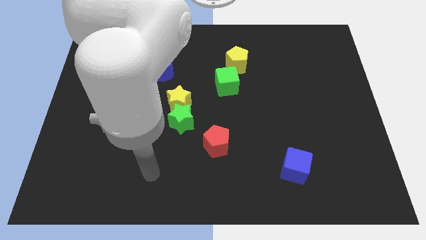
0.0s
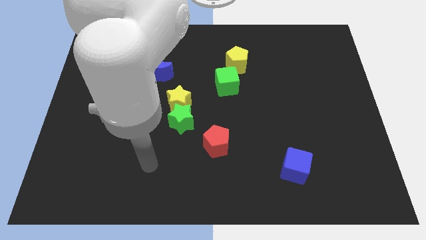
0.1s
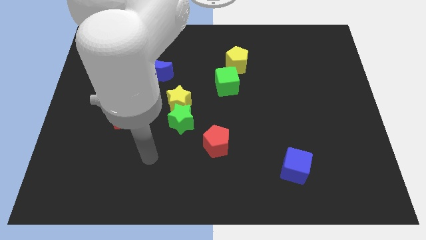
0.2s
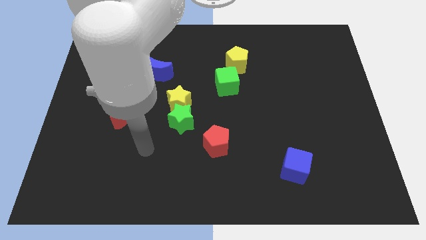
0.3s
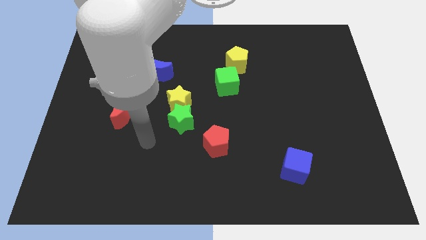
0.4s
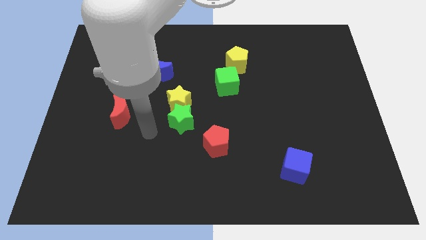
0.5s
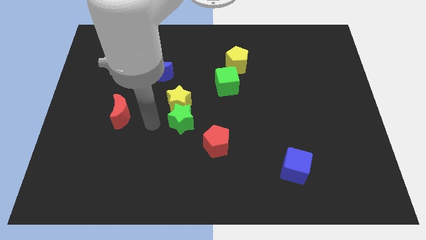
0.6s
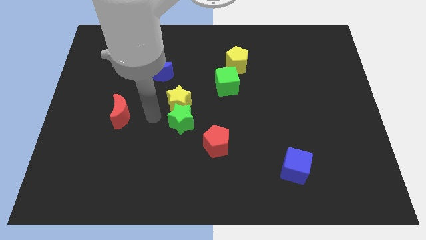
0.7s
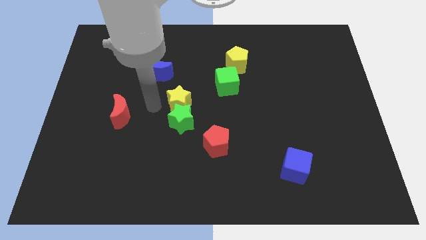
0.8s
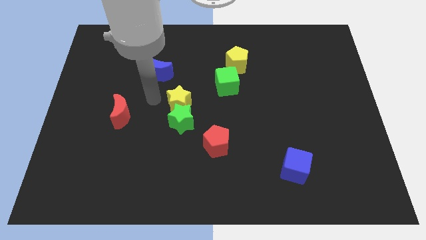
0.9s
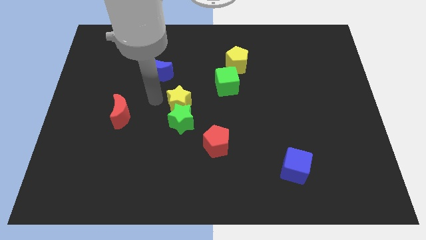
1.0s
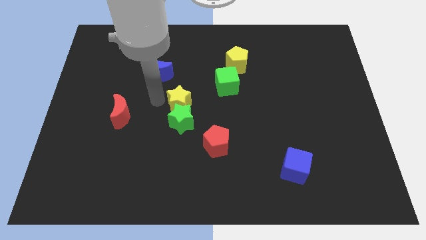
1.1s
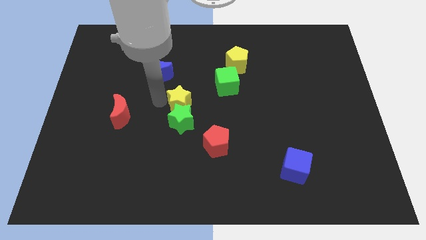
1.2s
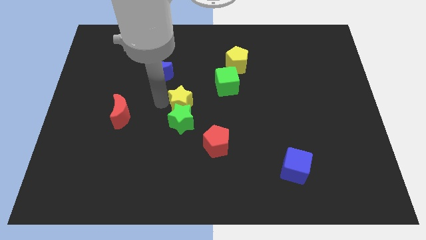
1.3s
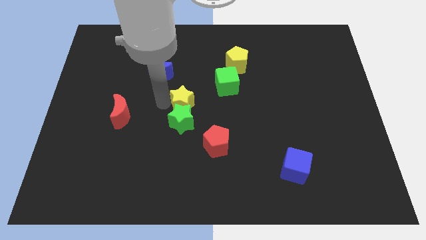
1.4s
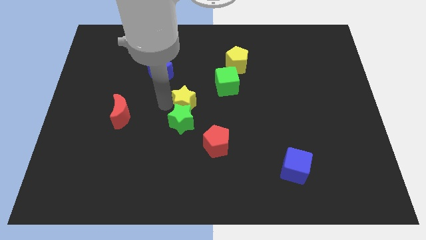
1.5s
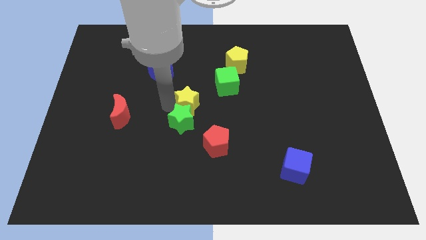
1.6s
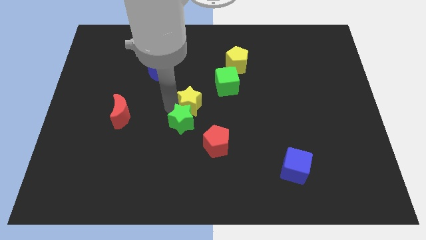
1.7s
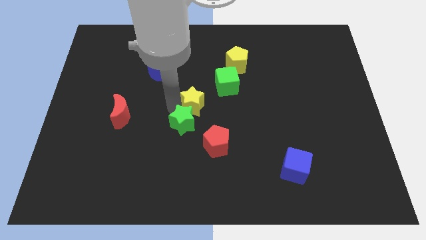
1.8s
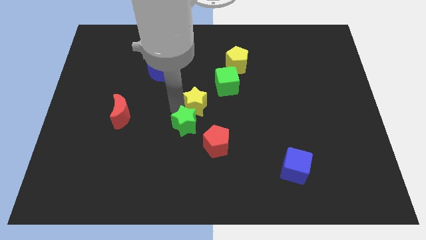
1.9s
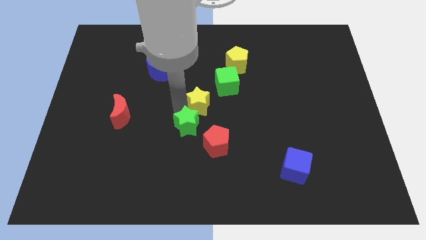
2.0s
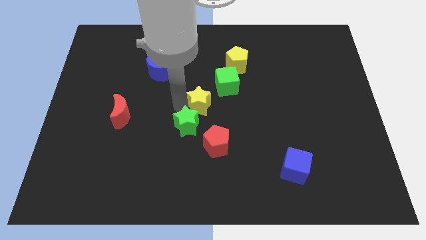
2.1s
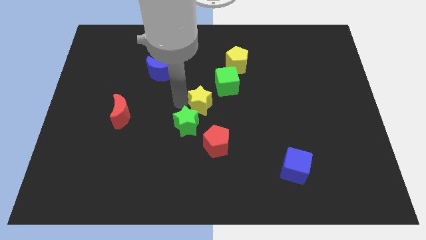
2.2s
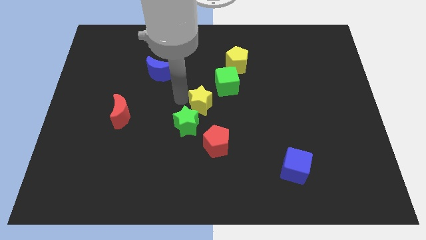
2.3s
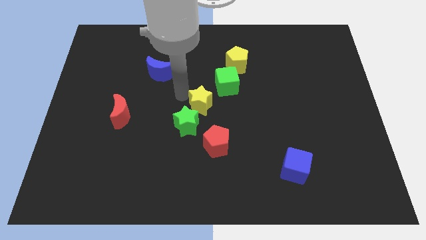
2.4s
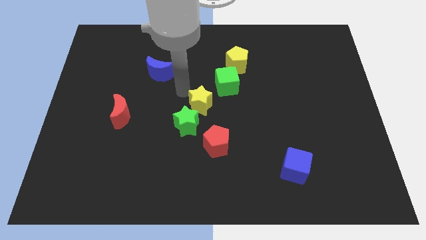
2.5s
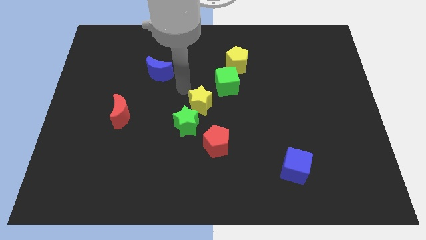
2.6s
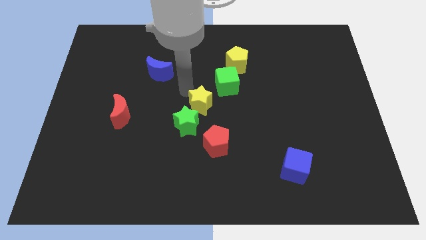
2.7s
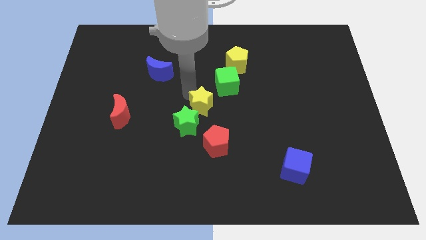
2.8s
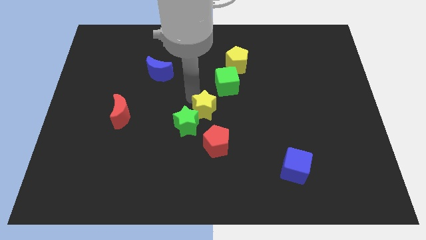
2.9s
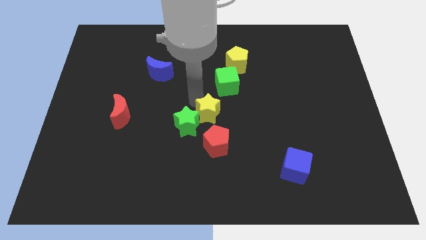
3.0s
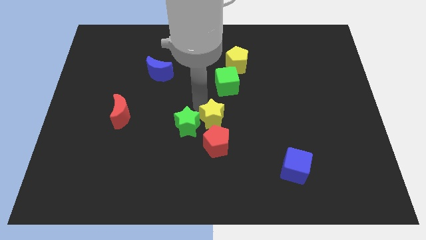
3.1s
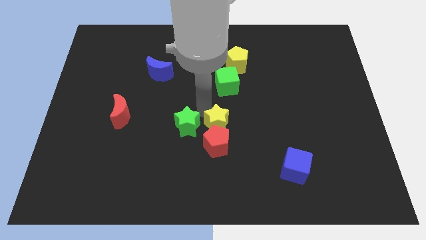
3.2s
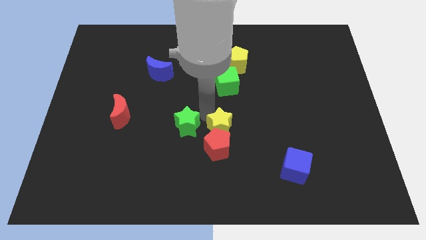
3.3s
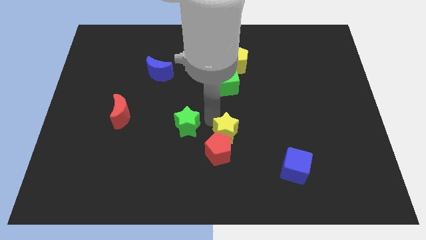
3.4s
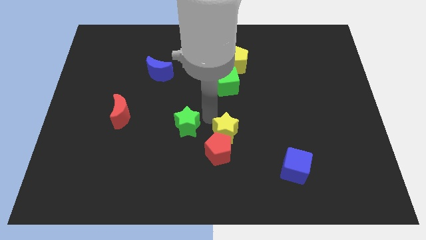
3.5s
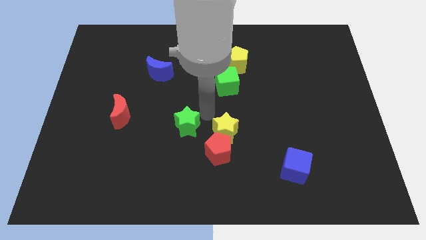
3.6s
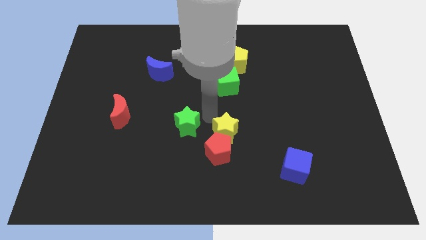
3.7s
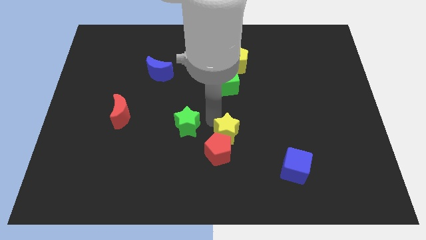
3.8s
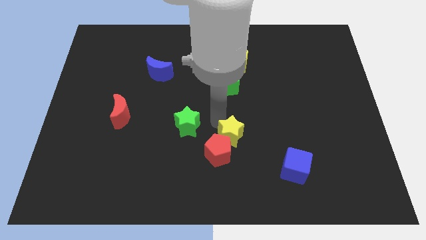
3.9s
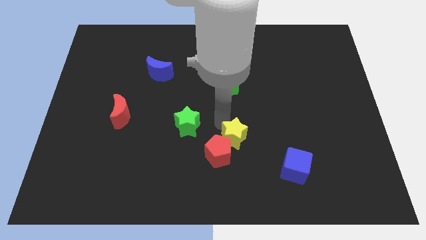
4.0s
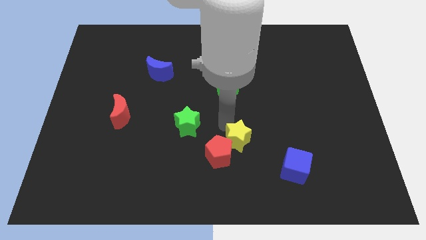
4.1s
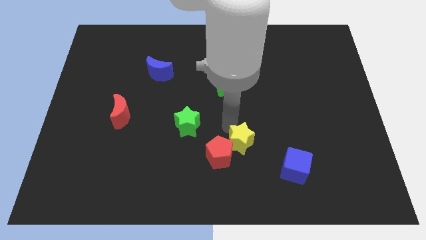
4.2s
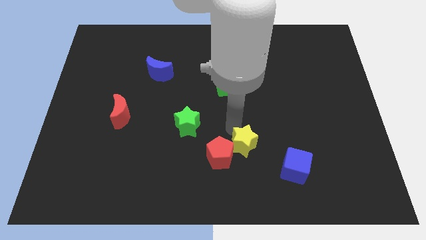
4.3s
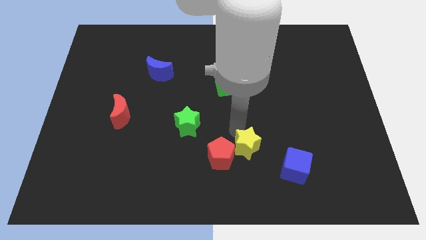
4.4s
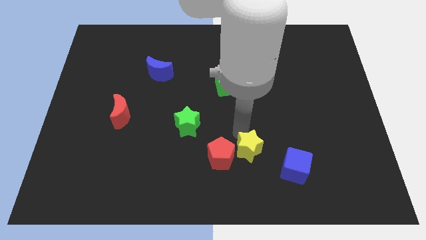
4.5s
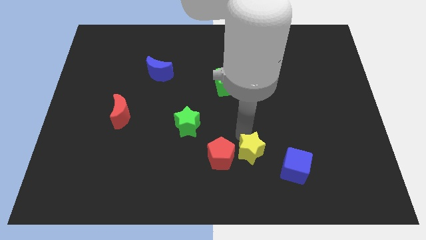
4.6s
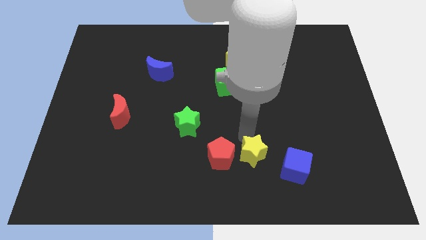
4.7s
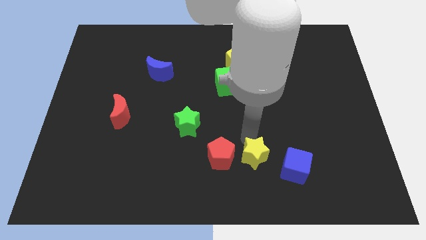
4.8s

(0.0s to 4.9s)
slide the yellow star to the bottom right of the red pentagon

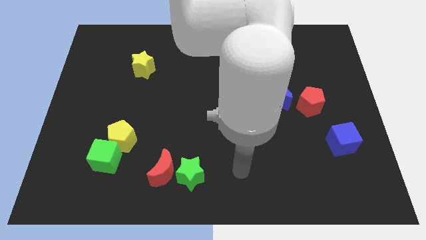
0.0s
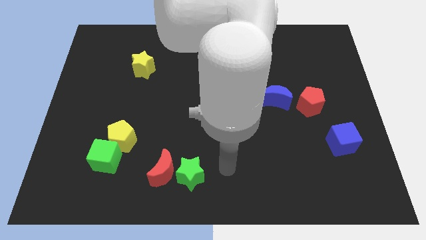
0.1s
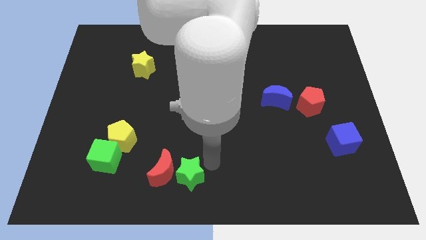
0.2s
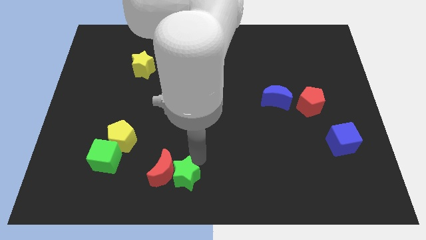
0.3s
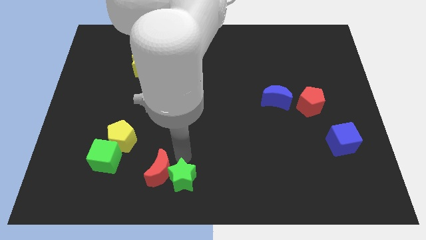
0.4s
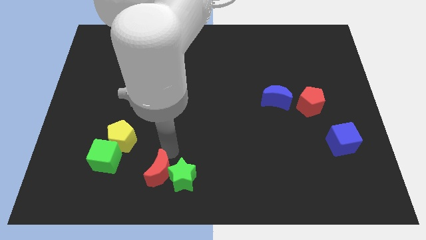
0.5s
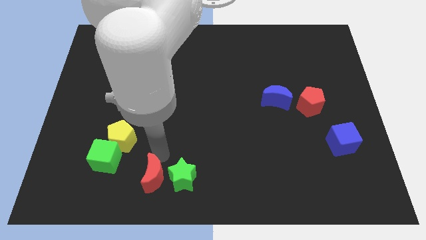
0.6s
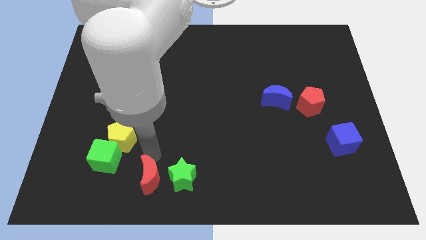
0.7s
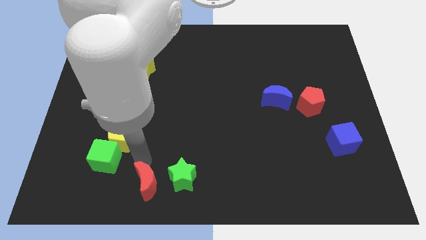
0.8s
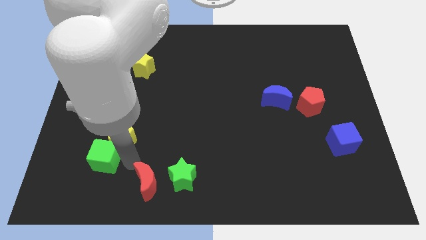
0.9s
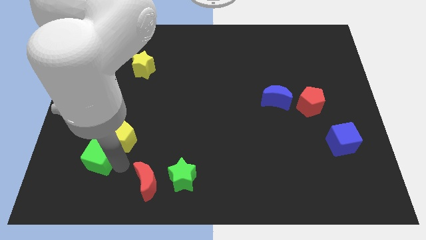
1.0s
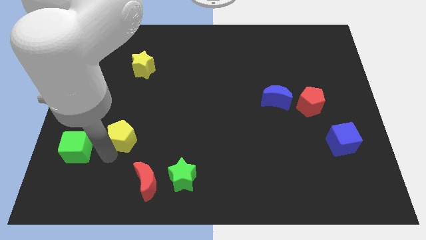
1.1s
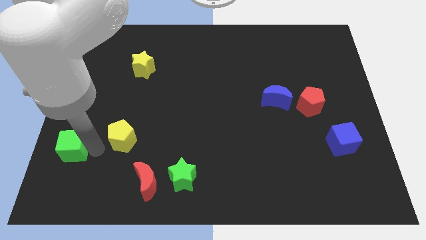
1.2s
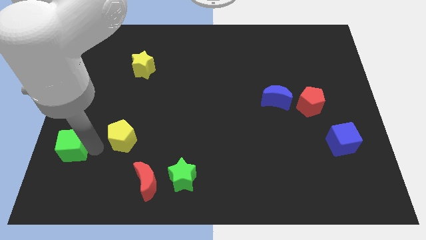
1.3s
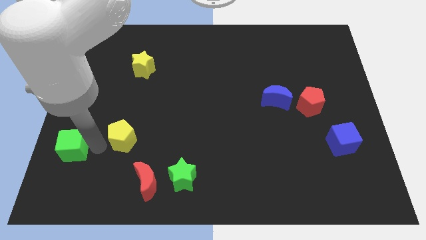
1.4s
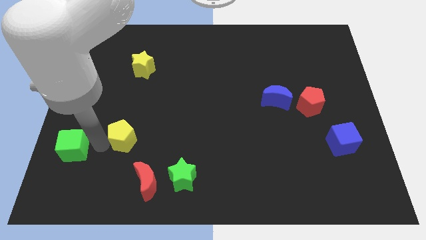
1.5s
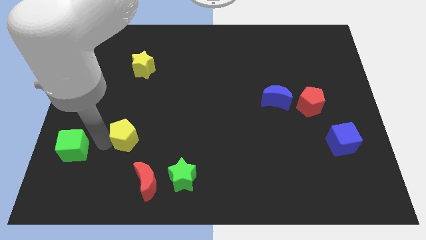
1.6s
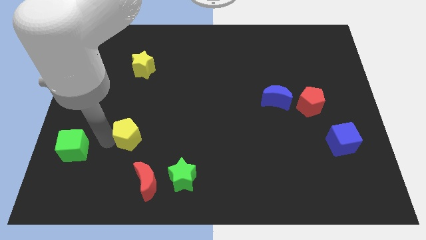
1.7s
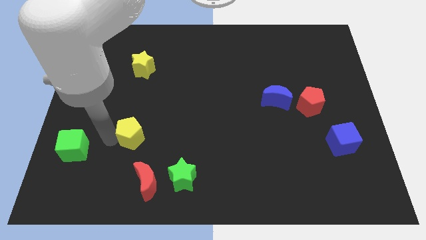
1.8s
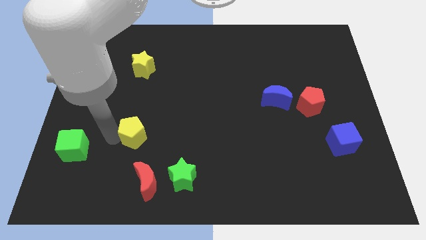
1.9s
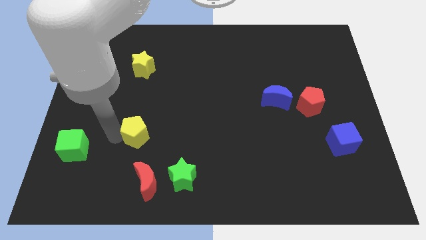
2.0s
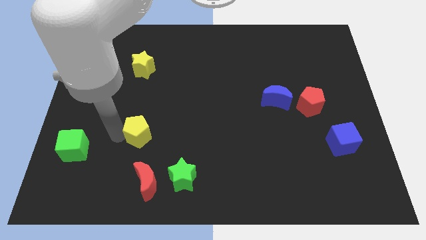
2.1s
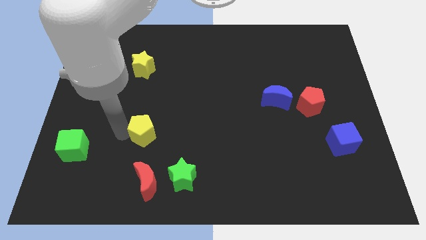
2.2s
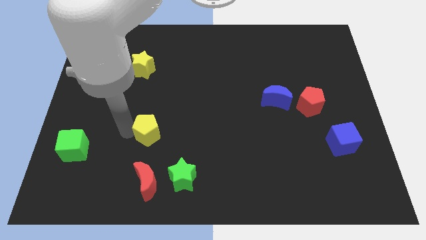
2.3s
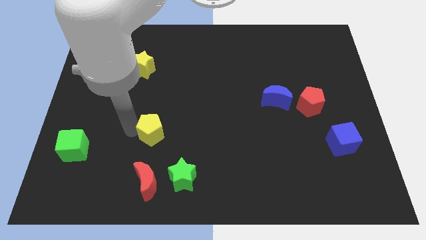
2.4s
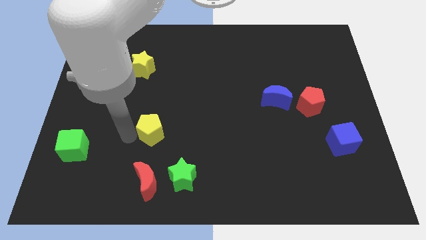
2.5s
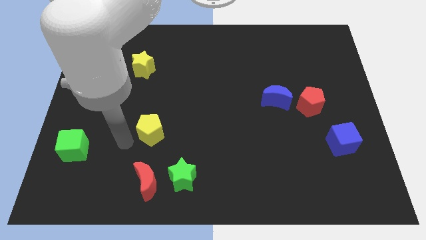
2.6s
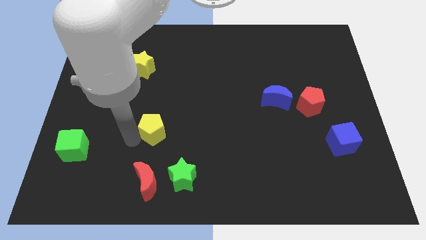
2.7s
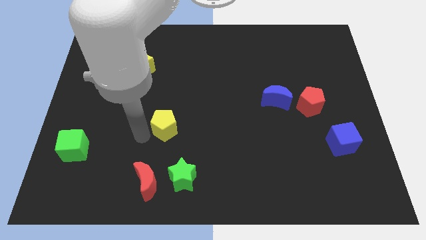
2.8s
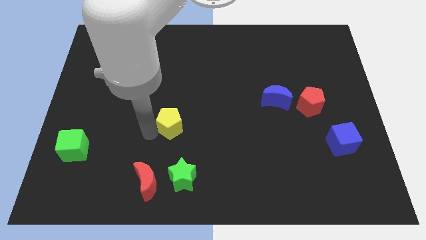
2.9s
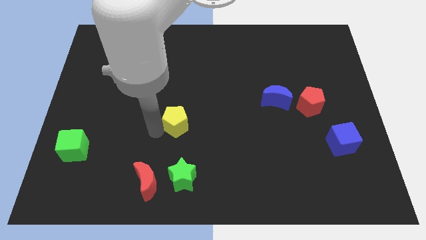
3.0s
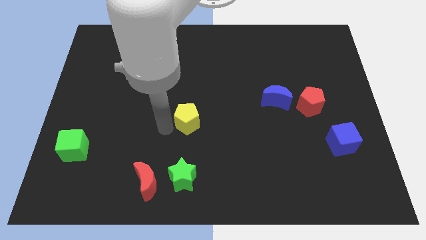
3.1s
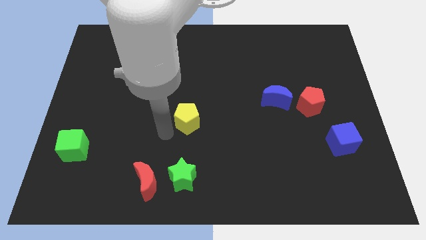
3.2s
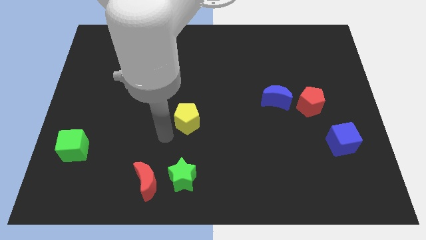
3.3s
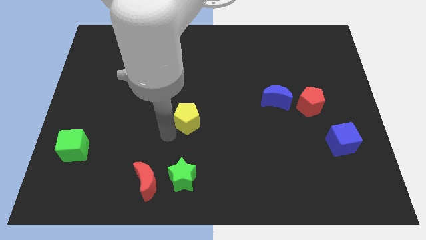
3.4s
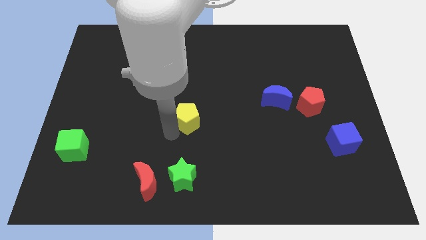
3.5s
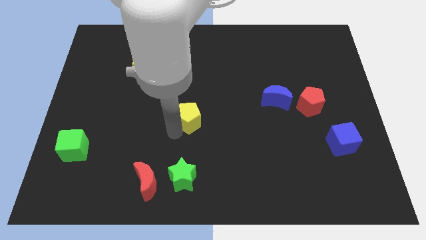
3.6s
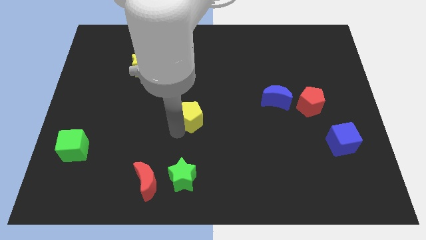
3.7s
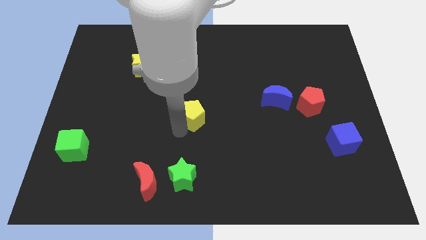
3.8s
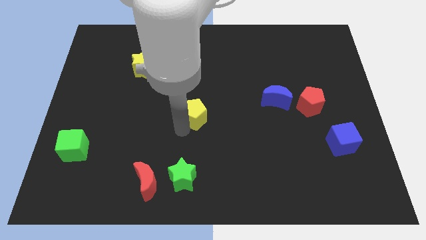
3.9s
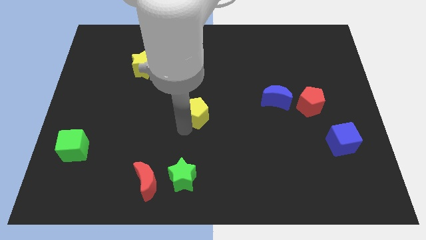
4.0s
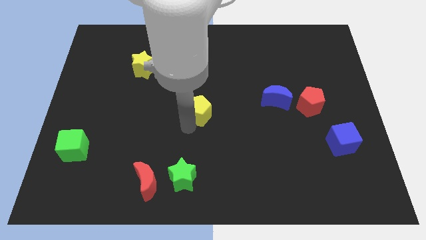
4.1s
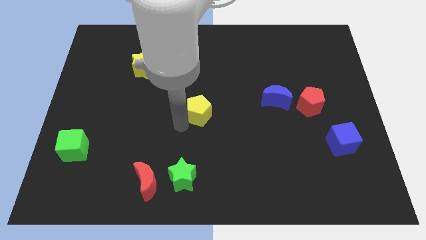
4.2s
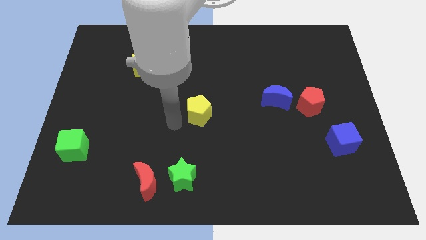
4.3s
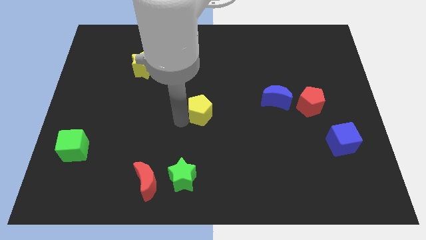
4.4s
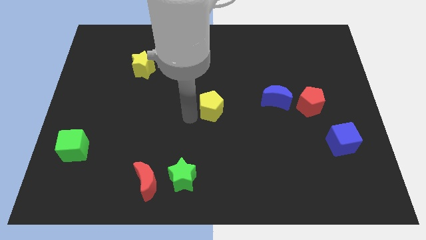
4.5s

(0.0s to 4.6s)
slide the yellow pentagon to the left side of the blue moon
